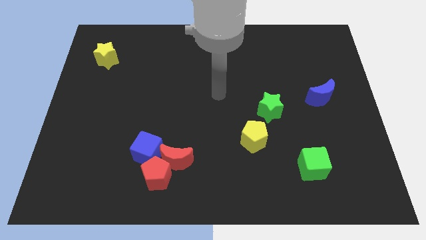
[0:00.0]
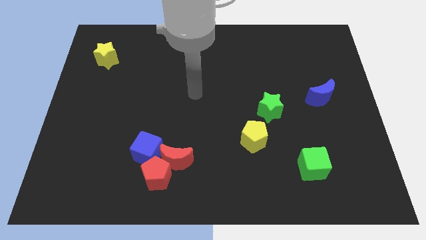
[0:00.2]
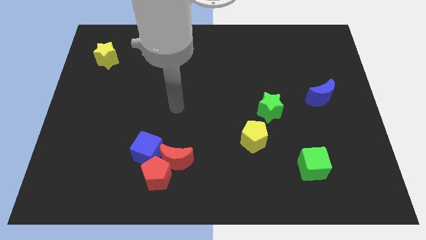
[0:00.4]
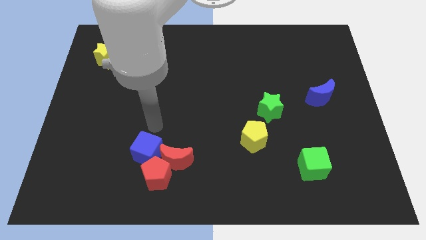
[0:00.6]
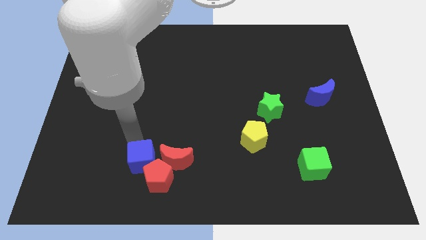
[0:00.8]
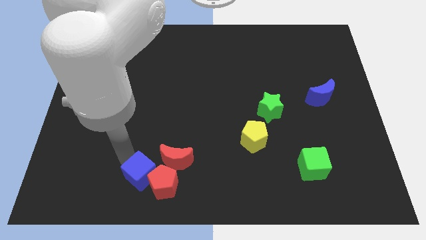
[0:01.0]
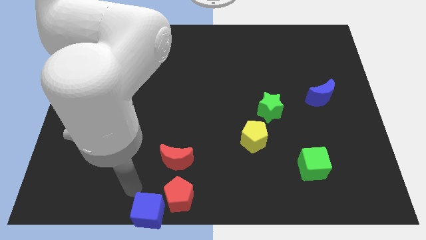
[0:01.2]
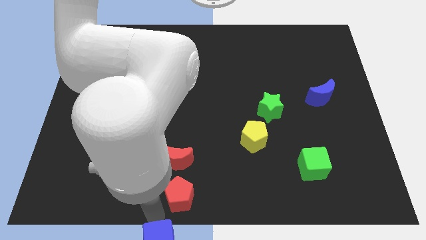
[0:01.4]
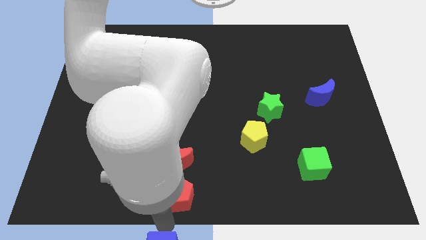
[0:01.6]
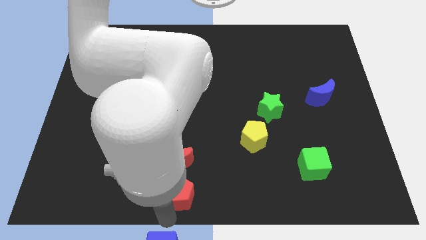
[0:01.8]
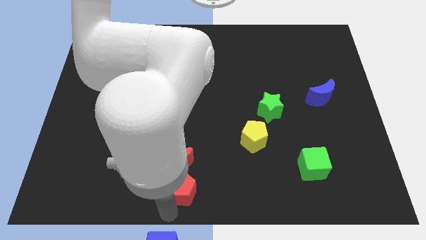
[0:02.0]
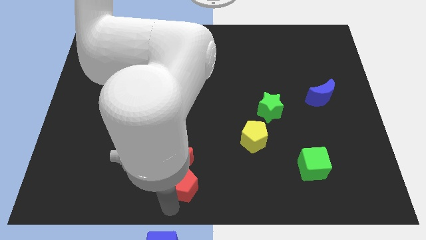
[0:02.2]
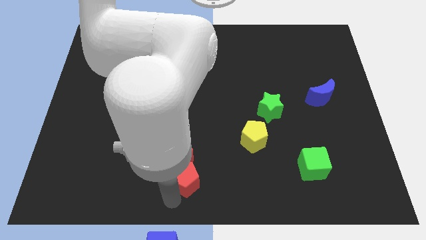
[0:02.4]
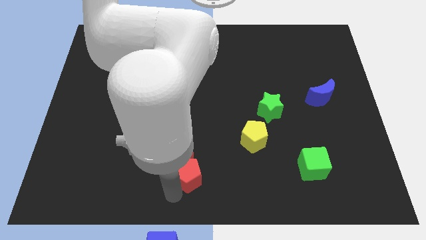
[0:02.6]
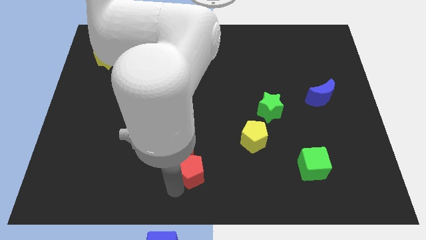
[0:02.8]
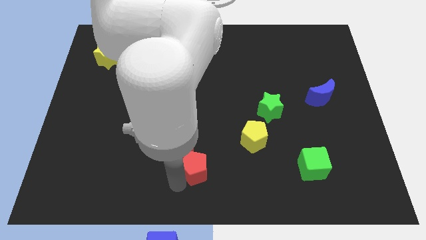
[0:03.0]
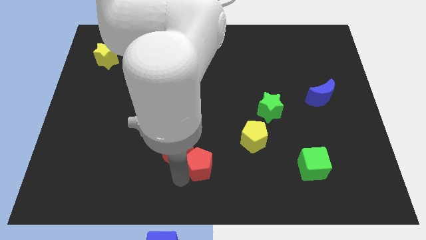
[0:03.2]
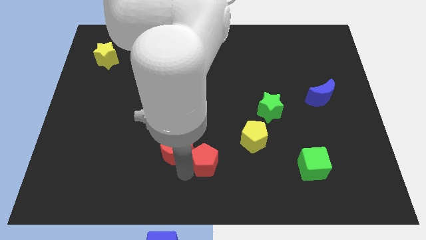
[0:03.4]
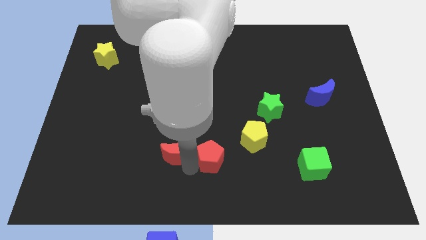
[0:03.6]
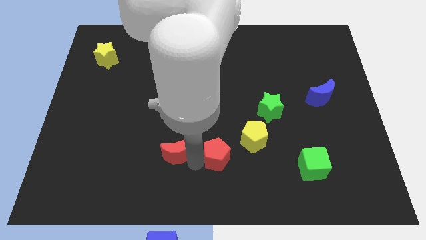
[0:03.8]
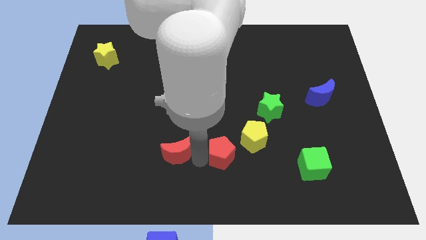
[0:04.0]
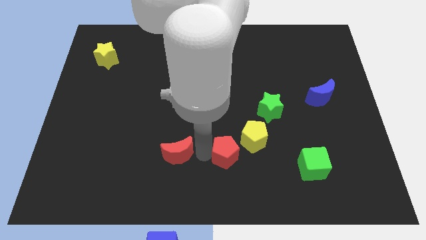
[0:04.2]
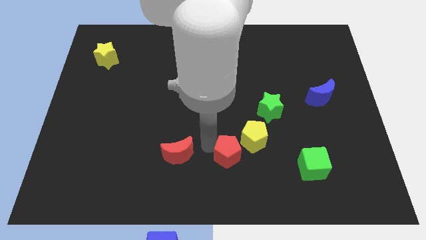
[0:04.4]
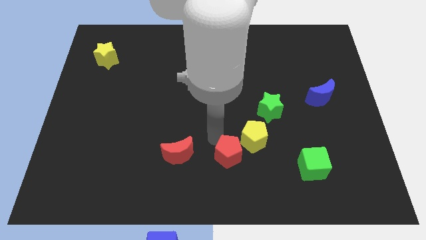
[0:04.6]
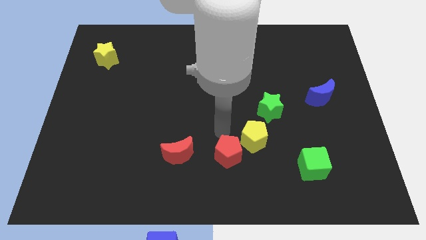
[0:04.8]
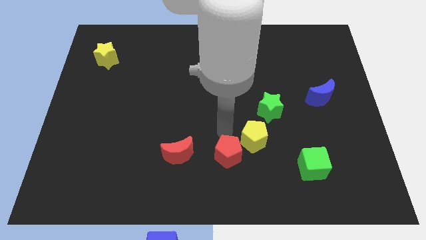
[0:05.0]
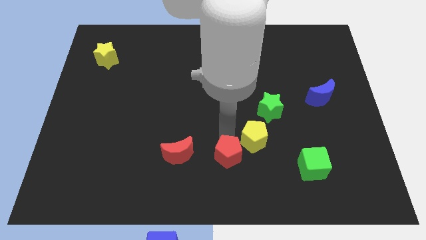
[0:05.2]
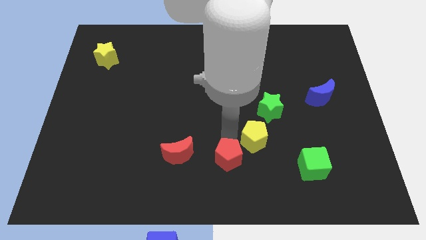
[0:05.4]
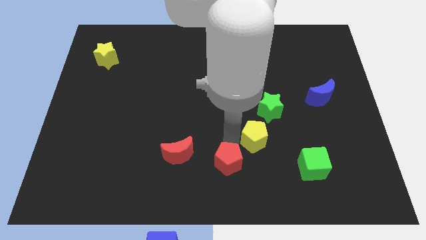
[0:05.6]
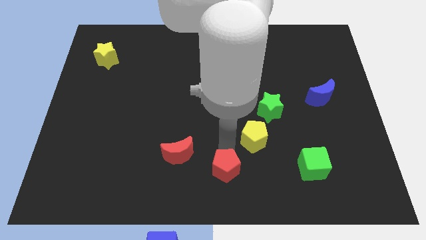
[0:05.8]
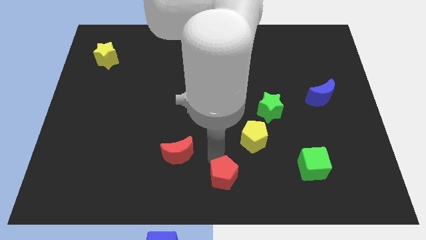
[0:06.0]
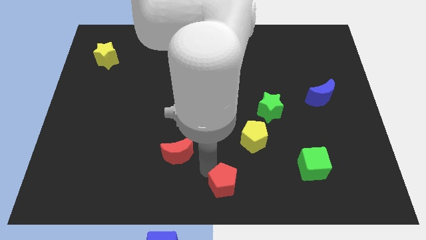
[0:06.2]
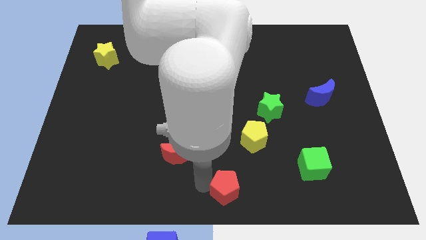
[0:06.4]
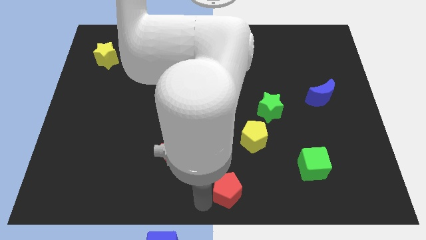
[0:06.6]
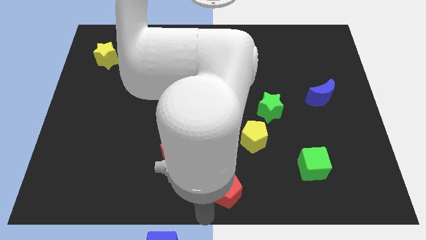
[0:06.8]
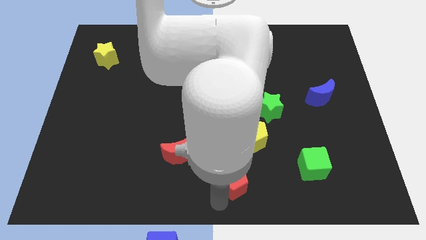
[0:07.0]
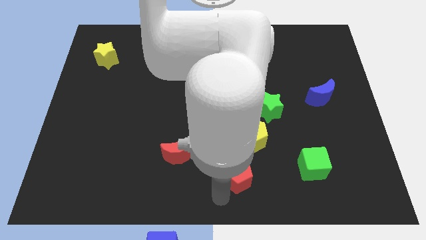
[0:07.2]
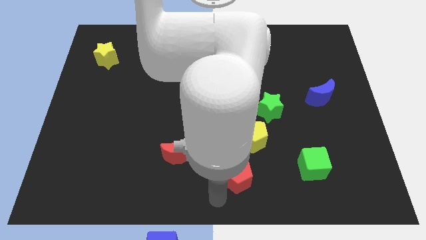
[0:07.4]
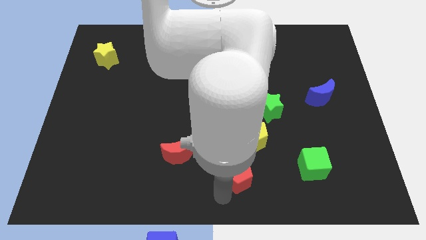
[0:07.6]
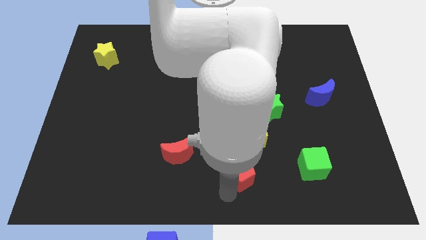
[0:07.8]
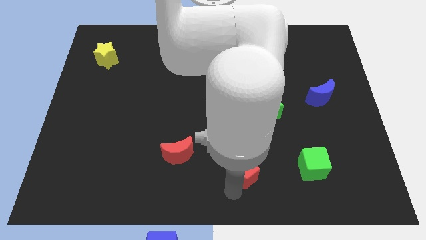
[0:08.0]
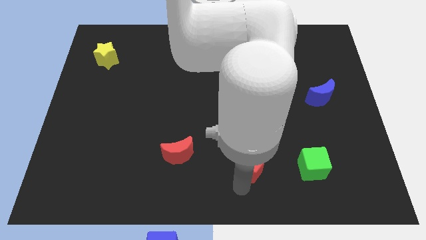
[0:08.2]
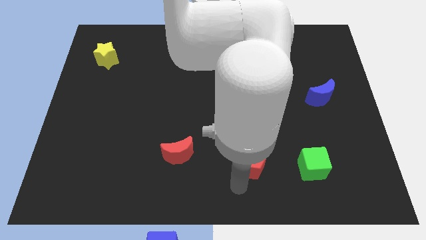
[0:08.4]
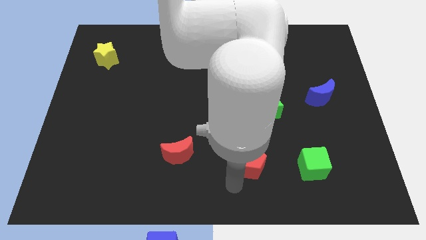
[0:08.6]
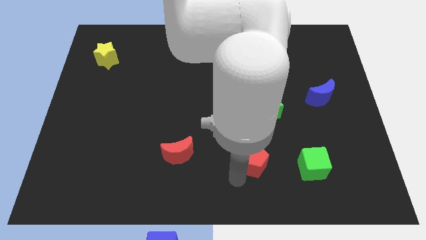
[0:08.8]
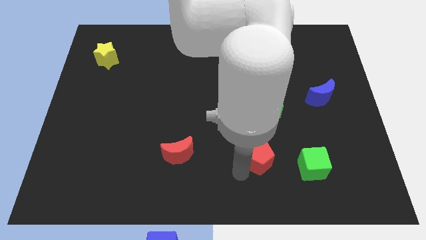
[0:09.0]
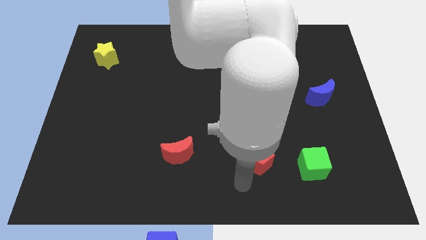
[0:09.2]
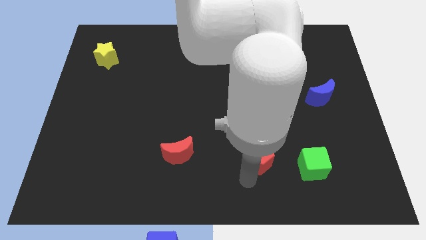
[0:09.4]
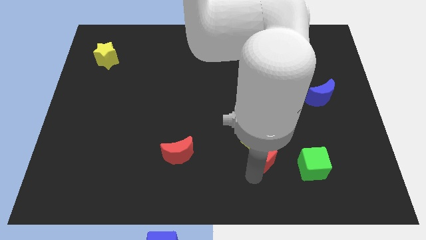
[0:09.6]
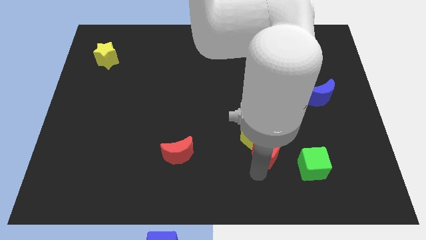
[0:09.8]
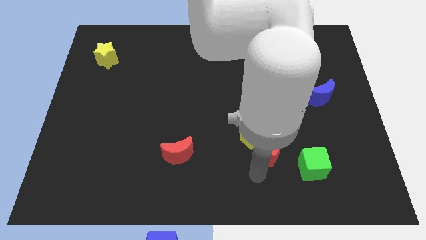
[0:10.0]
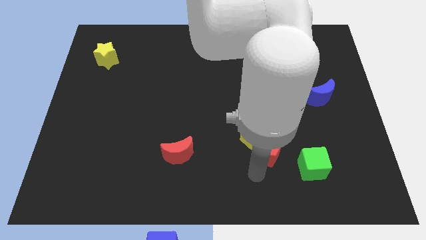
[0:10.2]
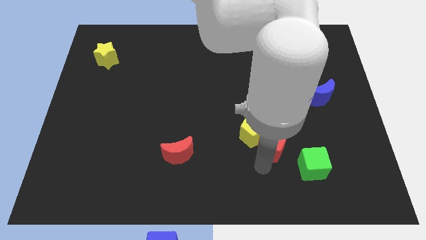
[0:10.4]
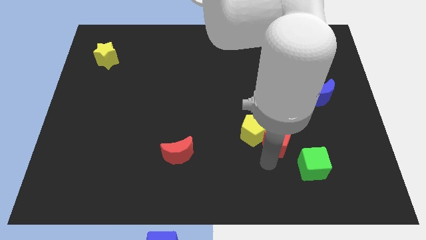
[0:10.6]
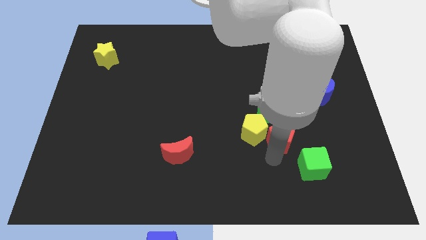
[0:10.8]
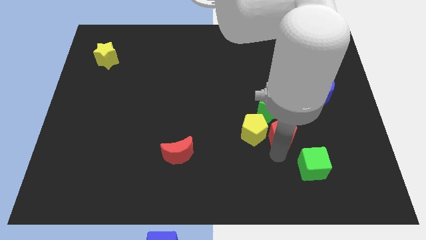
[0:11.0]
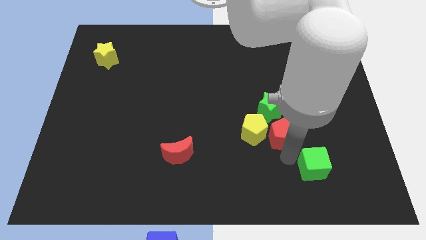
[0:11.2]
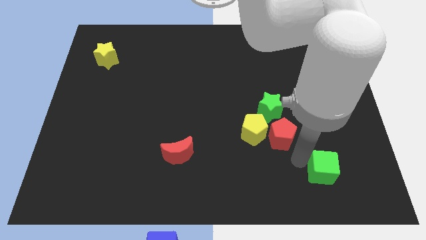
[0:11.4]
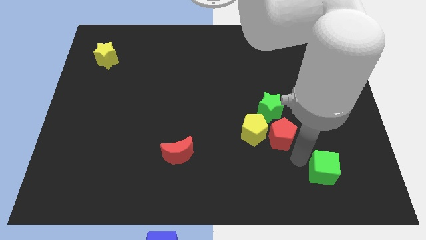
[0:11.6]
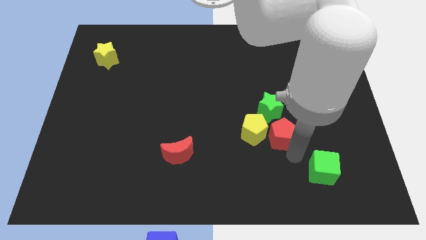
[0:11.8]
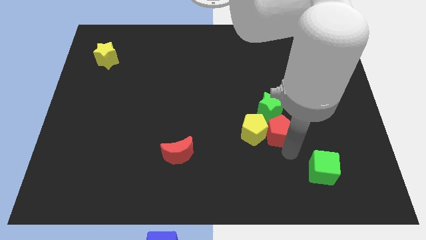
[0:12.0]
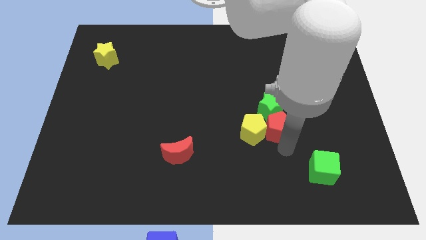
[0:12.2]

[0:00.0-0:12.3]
put the red pentagon towards the green star

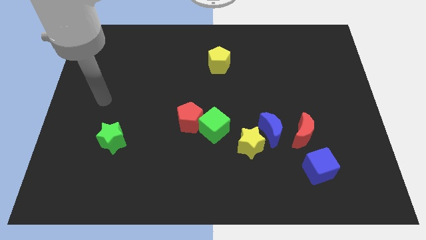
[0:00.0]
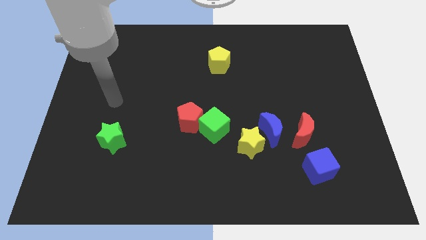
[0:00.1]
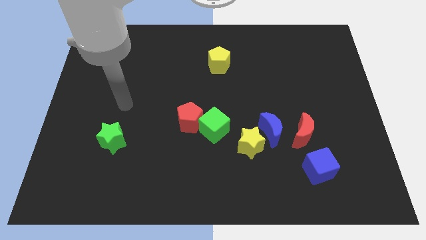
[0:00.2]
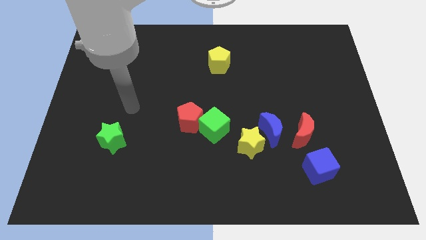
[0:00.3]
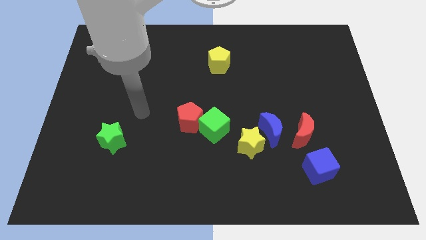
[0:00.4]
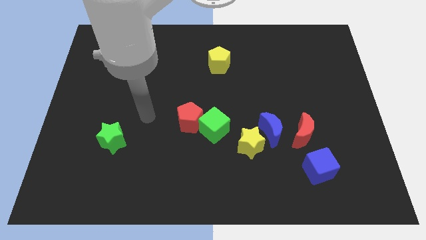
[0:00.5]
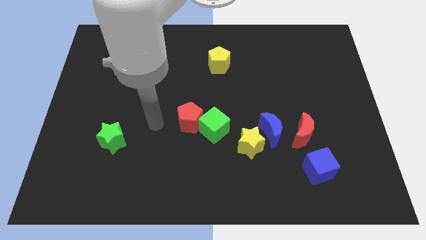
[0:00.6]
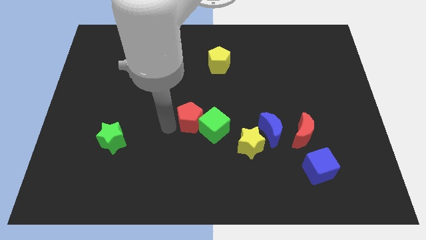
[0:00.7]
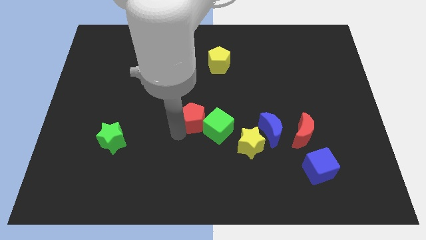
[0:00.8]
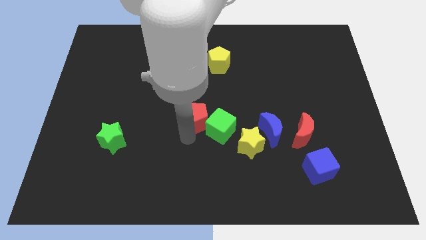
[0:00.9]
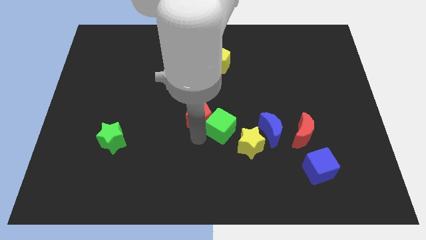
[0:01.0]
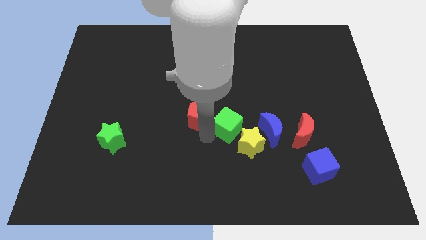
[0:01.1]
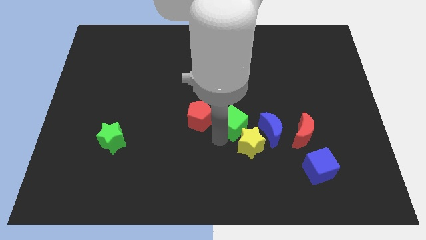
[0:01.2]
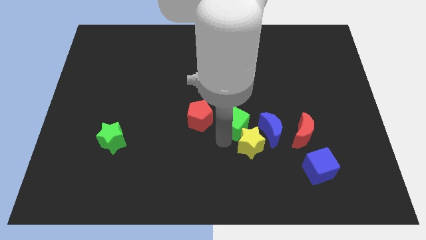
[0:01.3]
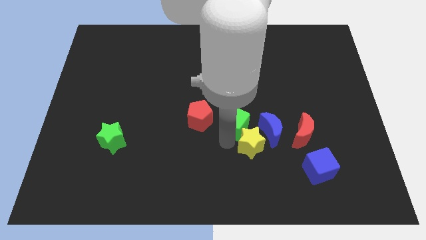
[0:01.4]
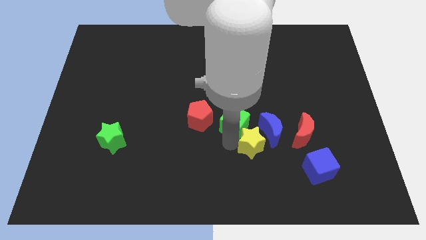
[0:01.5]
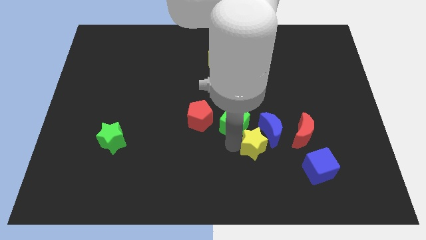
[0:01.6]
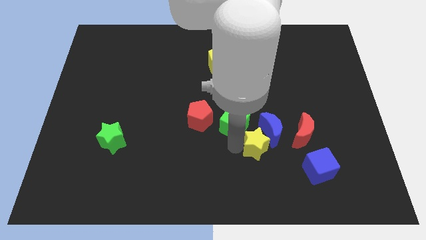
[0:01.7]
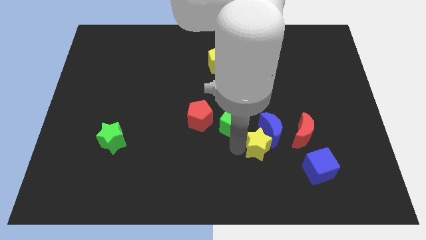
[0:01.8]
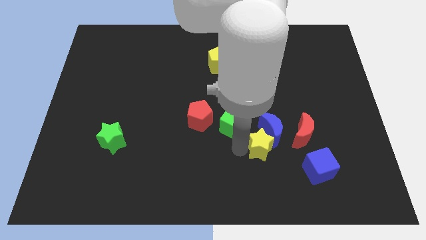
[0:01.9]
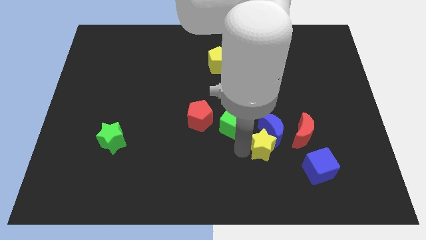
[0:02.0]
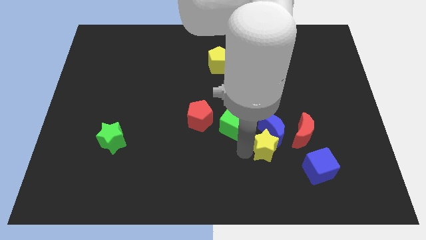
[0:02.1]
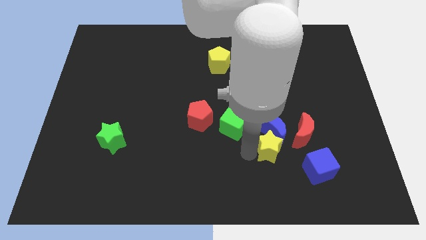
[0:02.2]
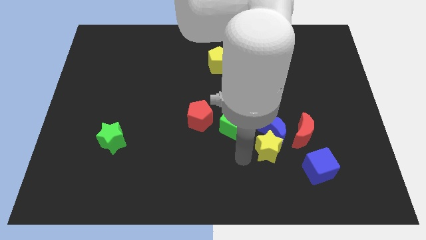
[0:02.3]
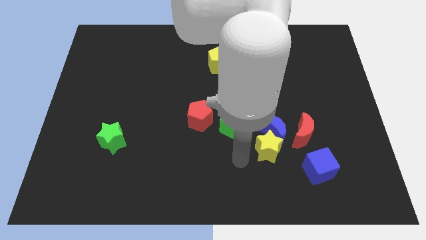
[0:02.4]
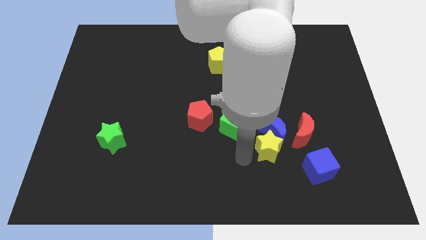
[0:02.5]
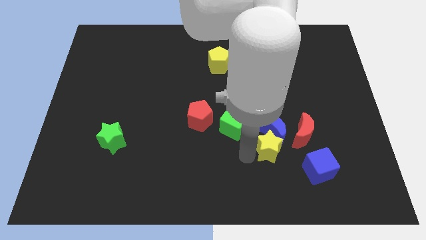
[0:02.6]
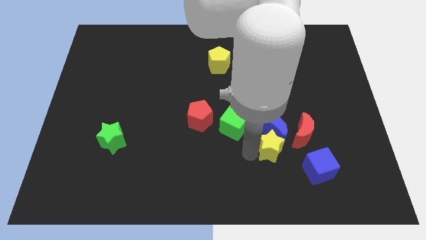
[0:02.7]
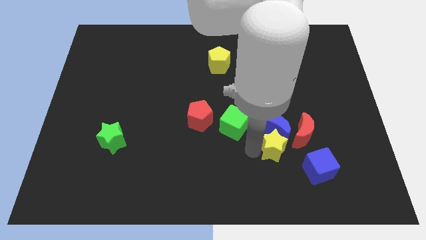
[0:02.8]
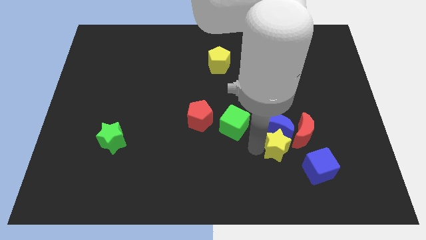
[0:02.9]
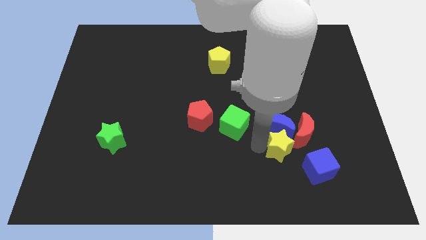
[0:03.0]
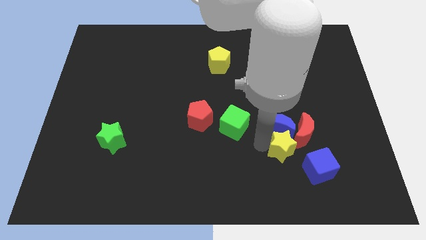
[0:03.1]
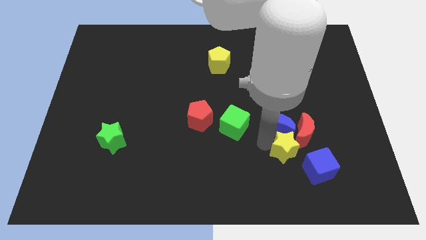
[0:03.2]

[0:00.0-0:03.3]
slide the yellow star towards the red moon
